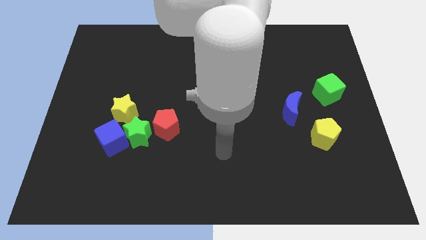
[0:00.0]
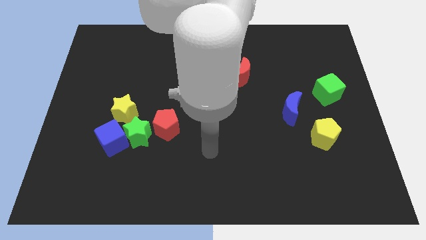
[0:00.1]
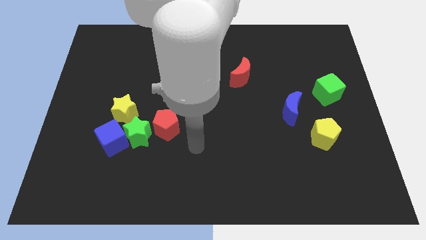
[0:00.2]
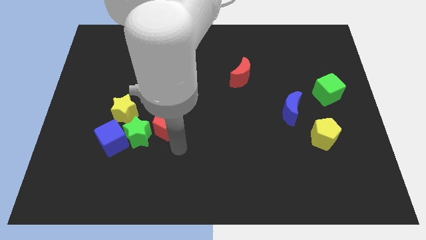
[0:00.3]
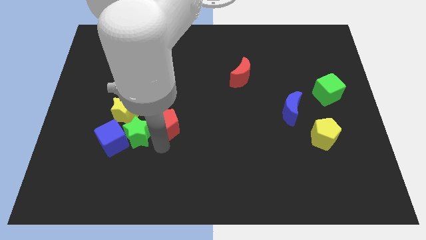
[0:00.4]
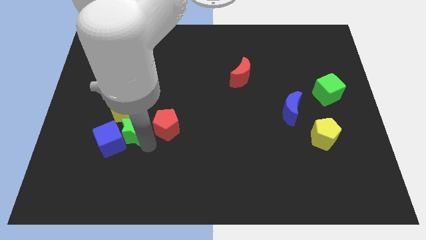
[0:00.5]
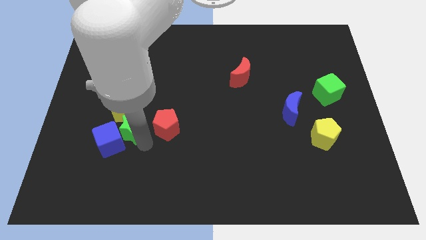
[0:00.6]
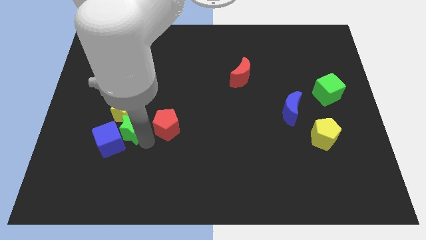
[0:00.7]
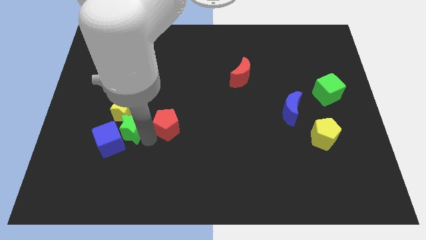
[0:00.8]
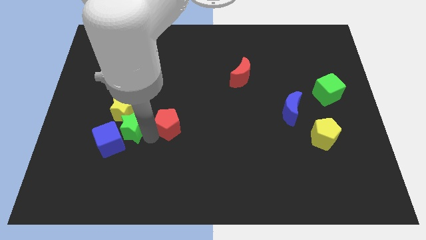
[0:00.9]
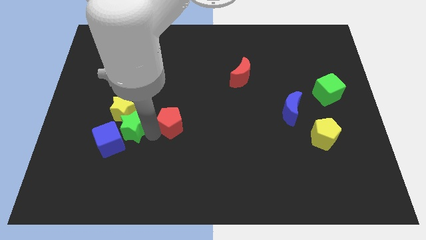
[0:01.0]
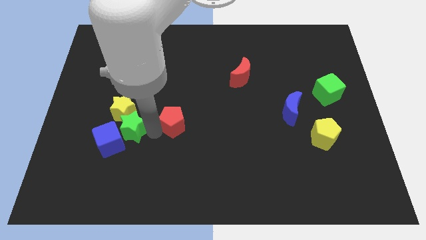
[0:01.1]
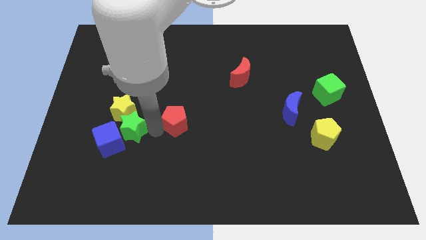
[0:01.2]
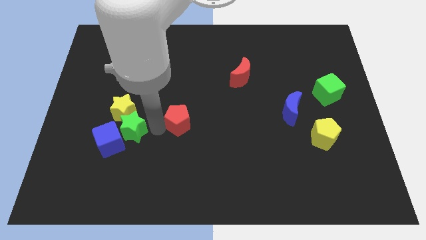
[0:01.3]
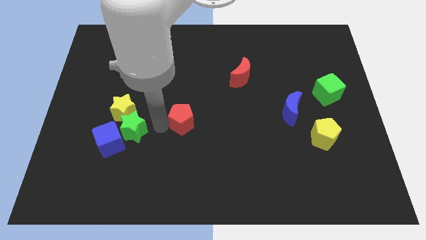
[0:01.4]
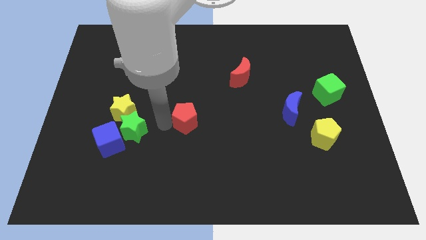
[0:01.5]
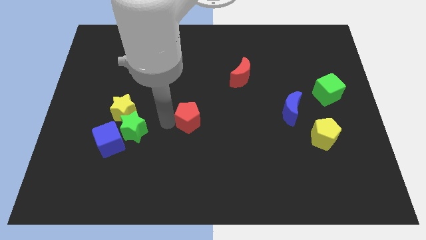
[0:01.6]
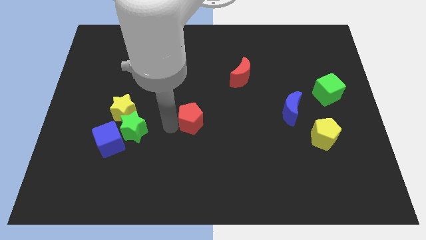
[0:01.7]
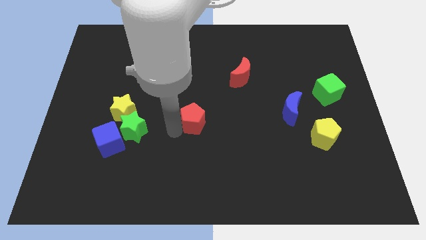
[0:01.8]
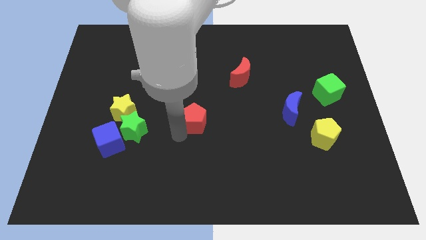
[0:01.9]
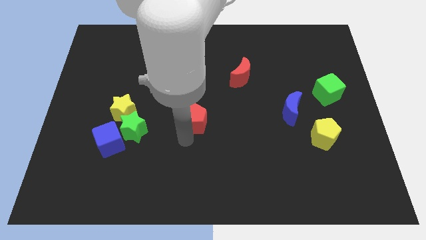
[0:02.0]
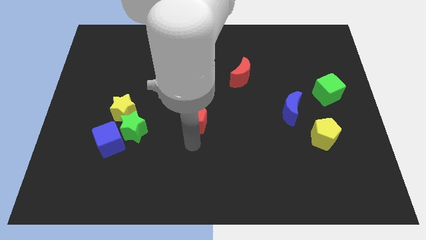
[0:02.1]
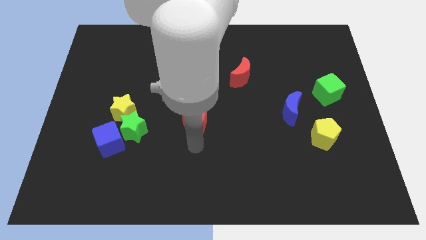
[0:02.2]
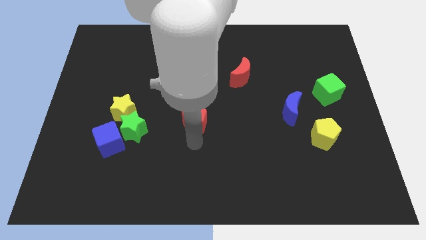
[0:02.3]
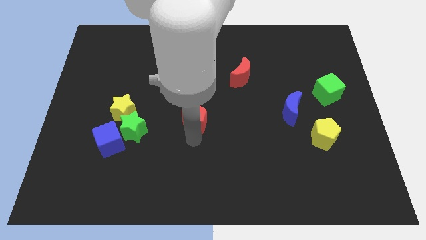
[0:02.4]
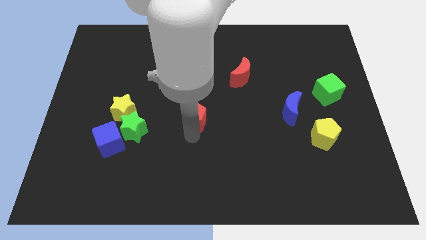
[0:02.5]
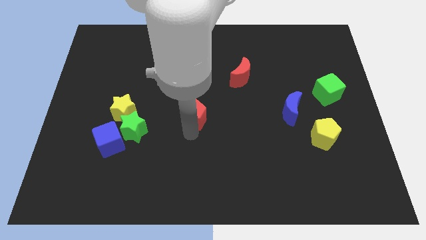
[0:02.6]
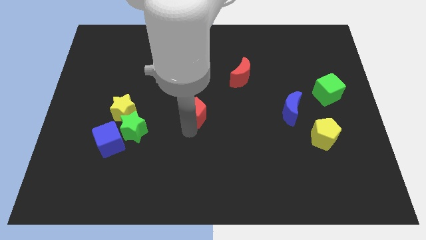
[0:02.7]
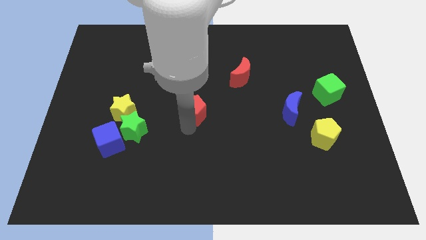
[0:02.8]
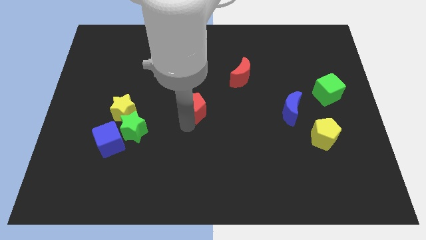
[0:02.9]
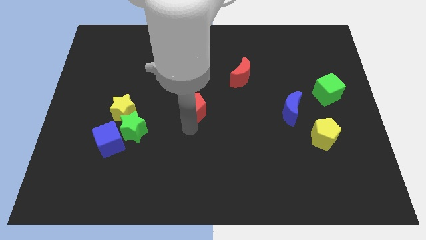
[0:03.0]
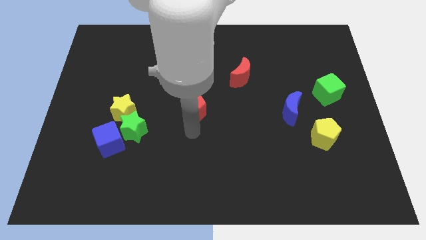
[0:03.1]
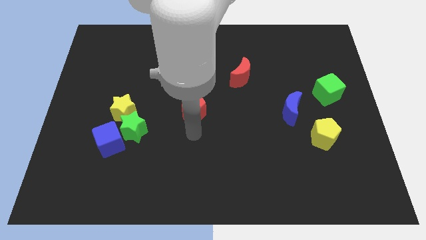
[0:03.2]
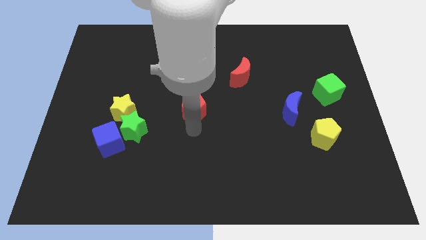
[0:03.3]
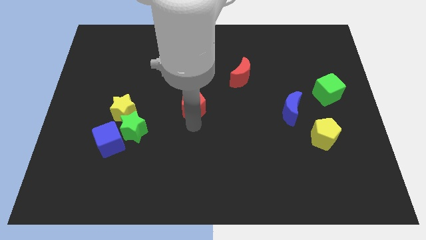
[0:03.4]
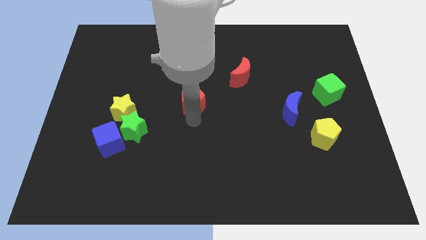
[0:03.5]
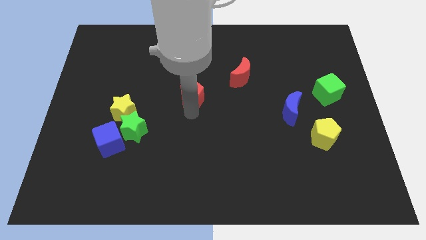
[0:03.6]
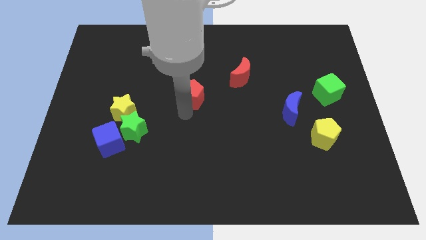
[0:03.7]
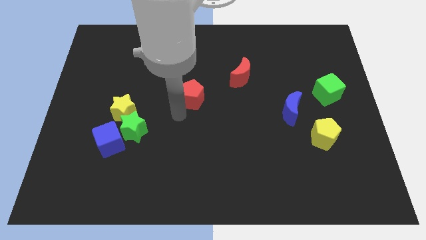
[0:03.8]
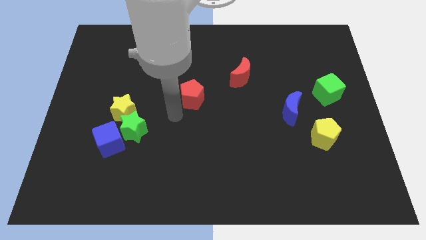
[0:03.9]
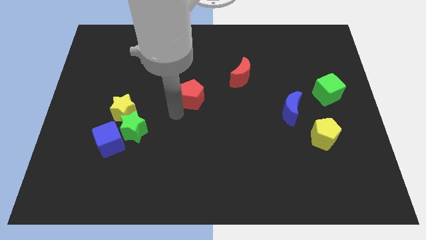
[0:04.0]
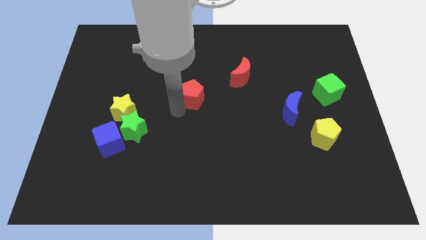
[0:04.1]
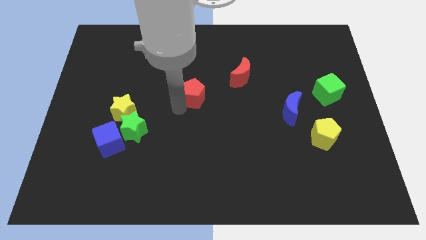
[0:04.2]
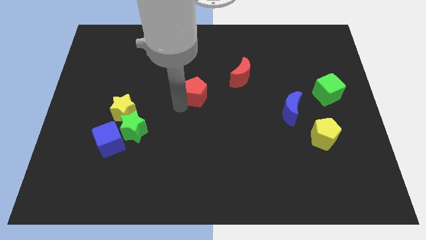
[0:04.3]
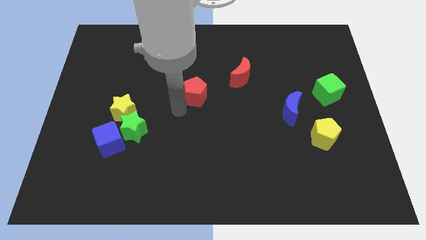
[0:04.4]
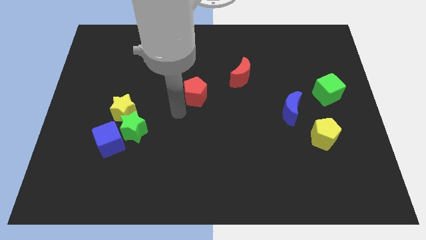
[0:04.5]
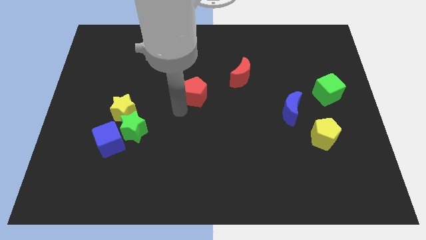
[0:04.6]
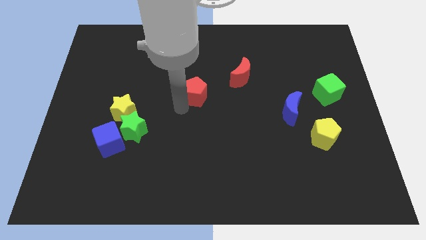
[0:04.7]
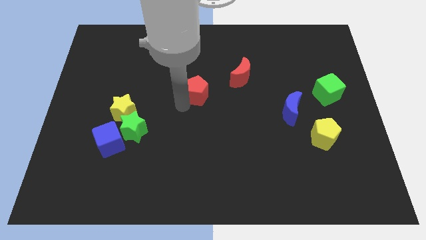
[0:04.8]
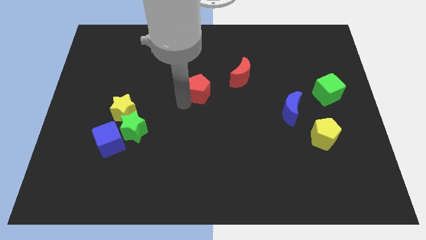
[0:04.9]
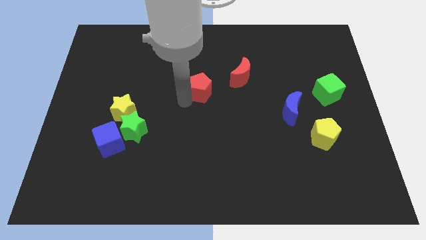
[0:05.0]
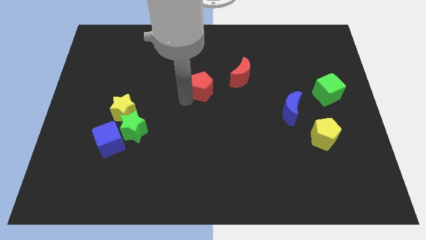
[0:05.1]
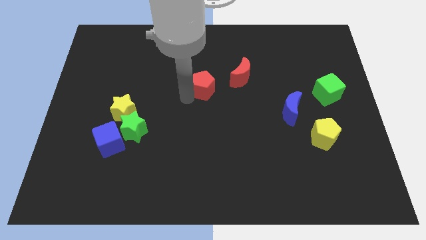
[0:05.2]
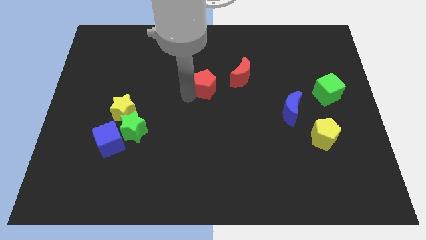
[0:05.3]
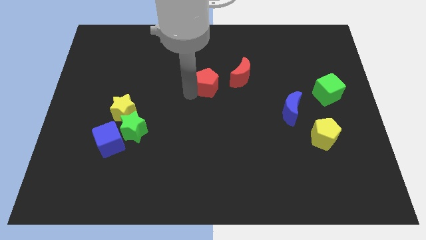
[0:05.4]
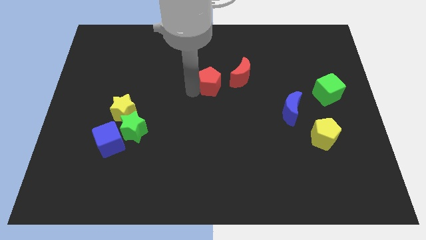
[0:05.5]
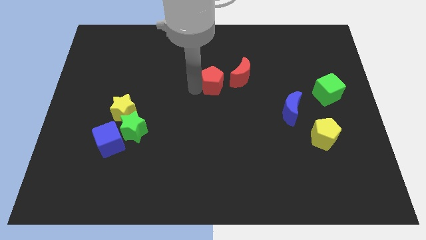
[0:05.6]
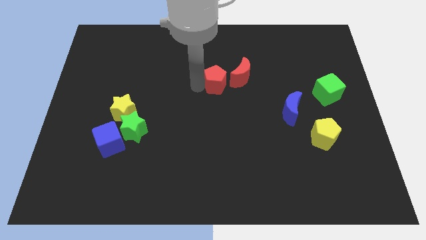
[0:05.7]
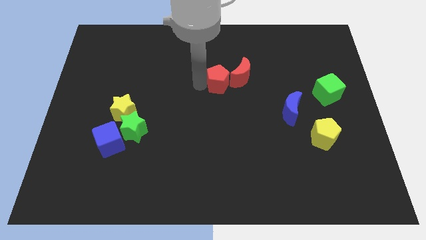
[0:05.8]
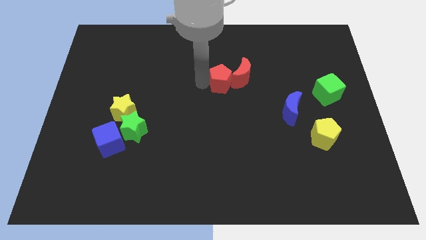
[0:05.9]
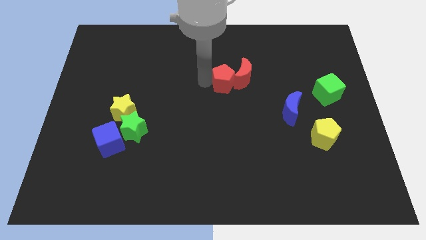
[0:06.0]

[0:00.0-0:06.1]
put the red pentagon to the top left of the red moon
